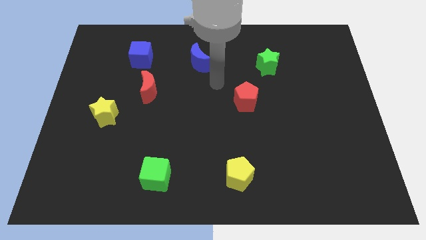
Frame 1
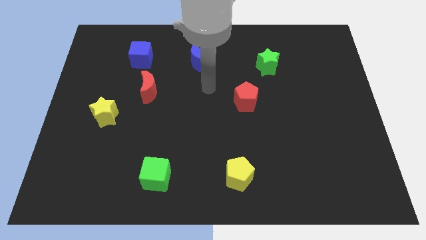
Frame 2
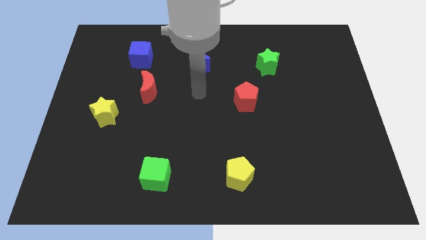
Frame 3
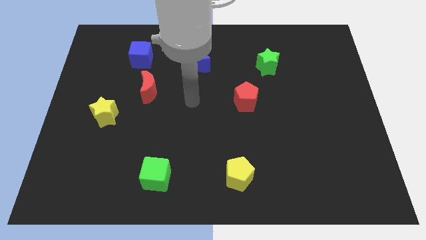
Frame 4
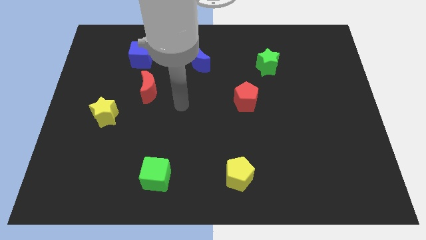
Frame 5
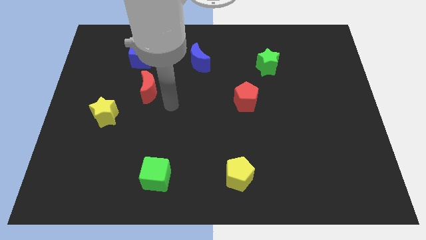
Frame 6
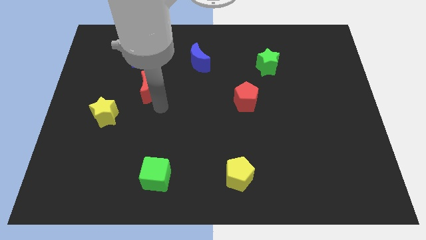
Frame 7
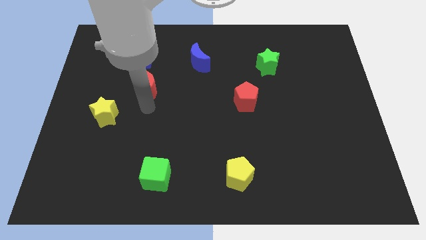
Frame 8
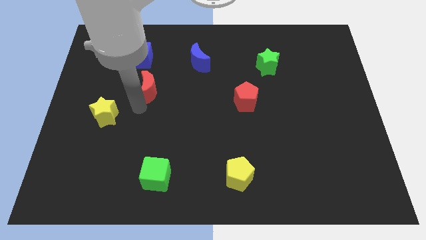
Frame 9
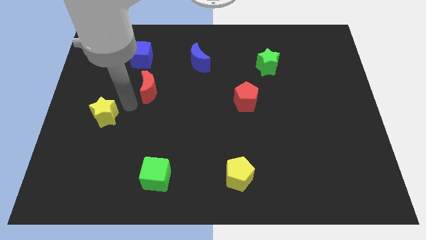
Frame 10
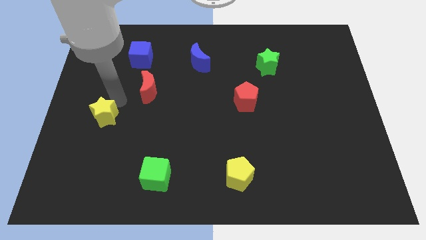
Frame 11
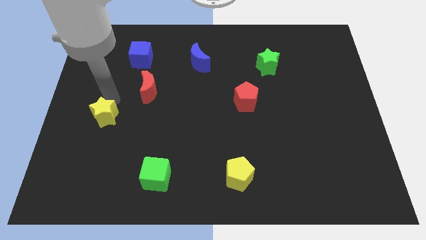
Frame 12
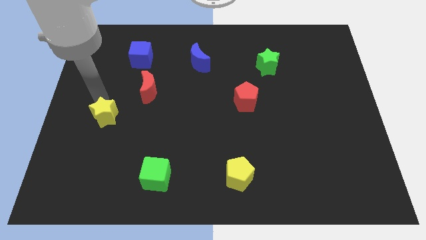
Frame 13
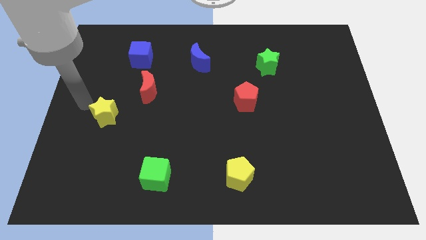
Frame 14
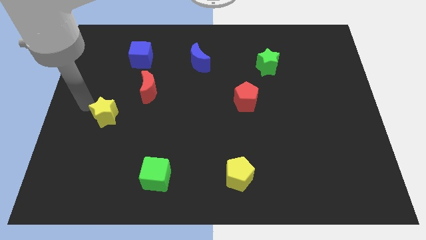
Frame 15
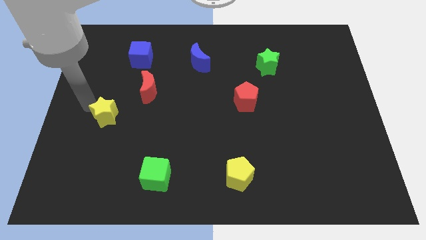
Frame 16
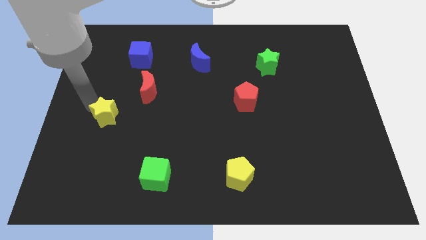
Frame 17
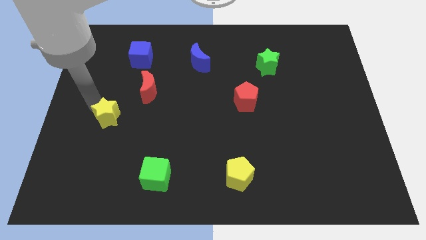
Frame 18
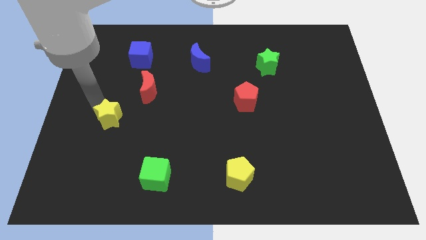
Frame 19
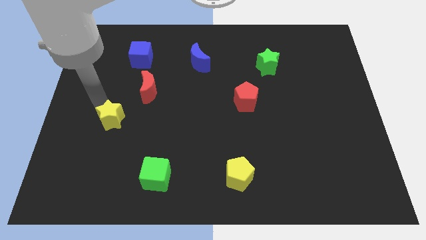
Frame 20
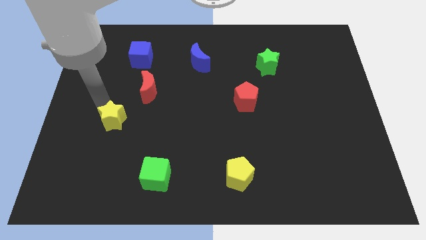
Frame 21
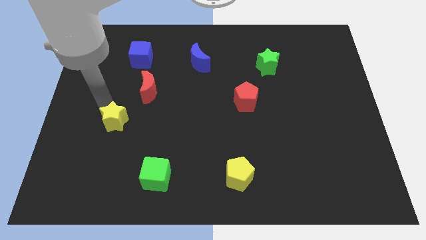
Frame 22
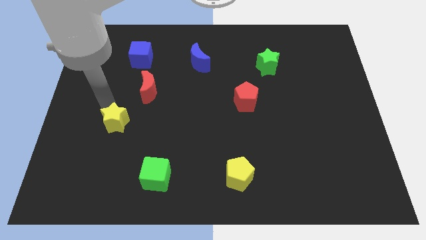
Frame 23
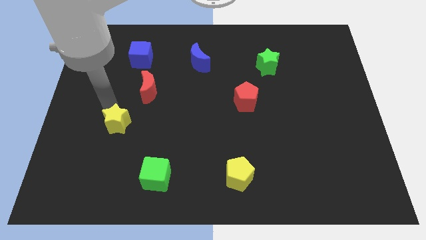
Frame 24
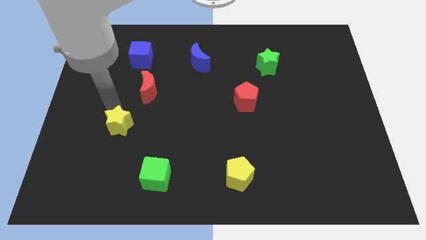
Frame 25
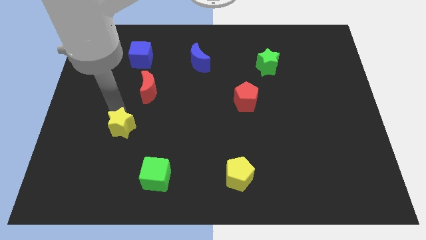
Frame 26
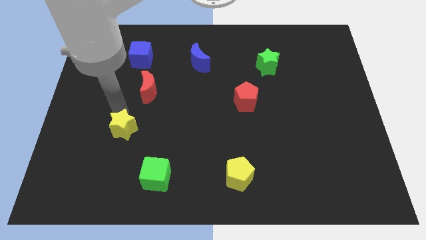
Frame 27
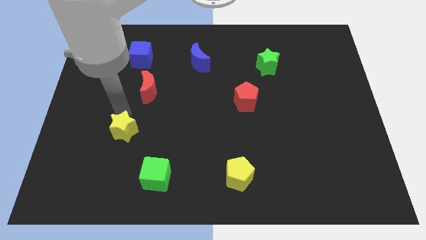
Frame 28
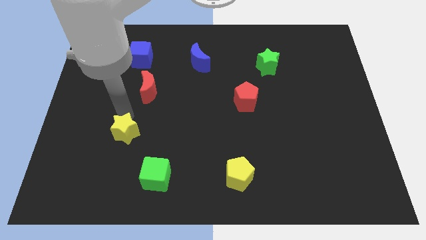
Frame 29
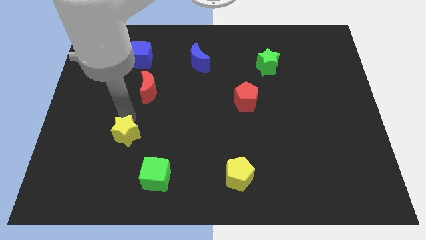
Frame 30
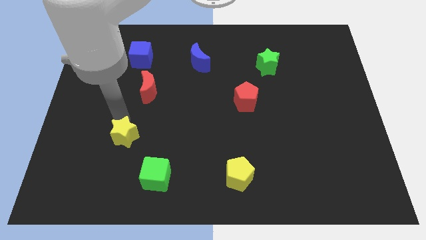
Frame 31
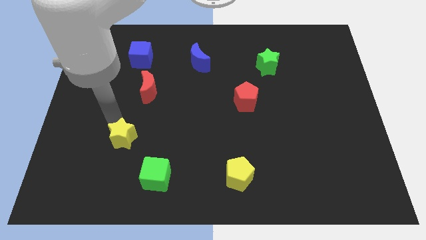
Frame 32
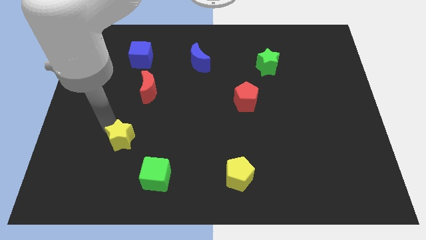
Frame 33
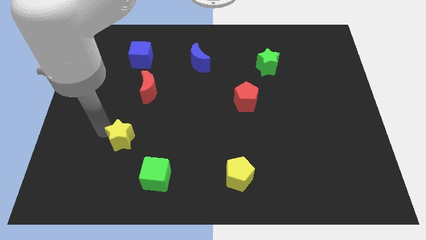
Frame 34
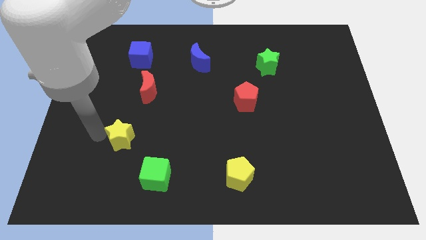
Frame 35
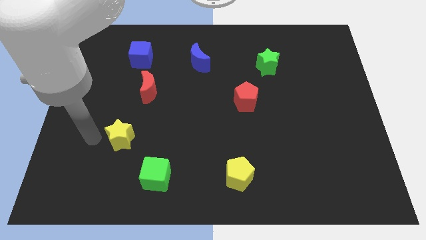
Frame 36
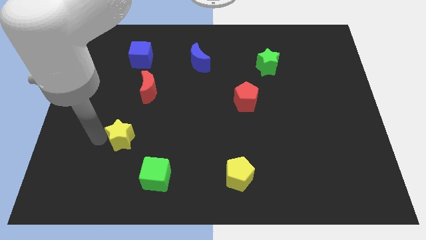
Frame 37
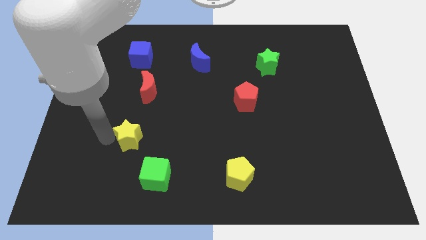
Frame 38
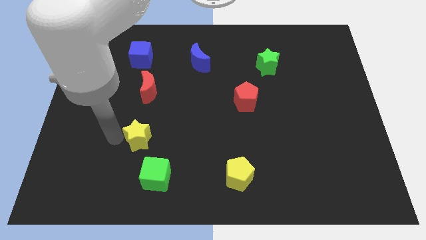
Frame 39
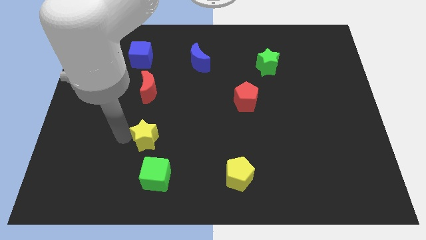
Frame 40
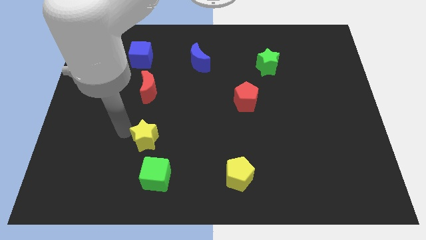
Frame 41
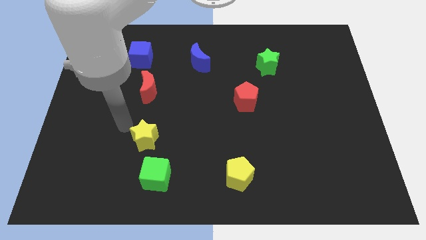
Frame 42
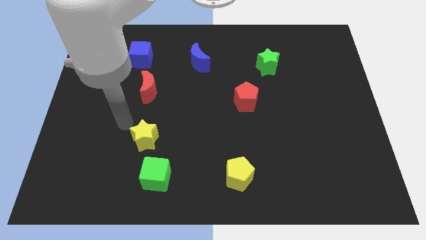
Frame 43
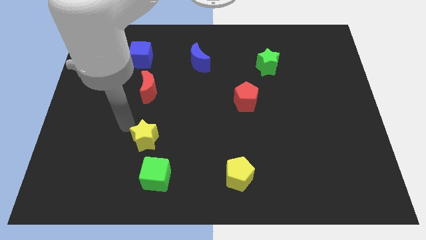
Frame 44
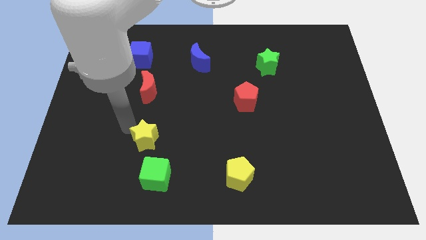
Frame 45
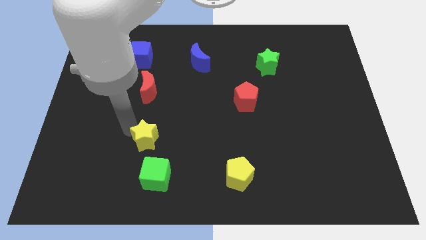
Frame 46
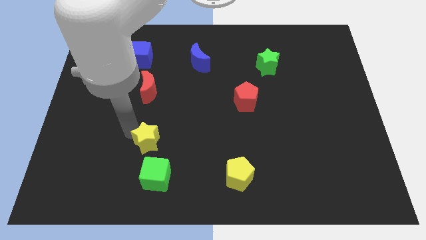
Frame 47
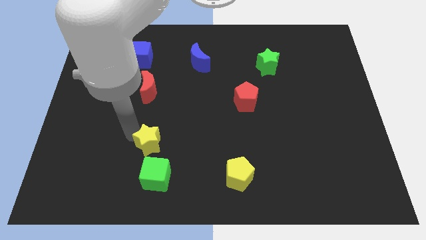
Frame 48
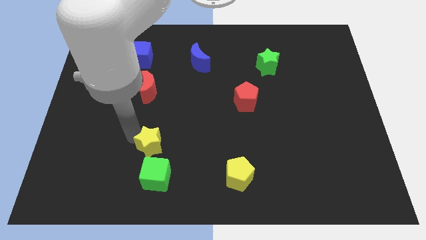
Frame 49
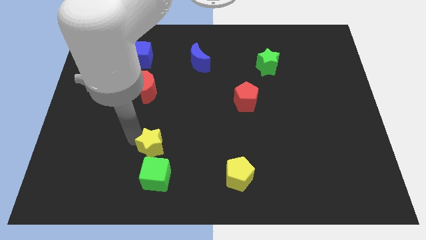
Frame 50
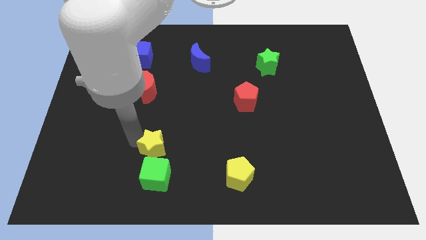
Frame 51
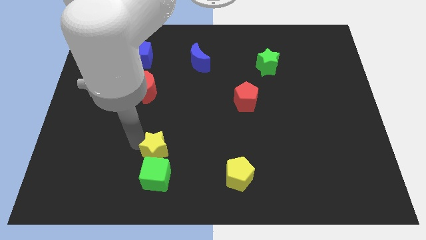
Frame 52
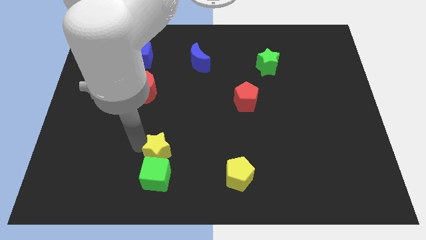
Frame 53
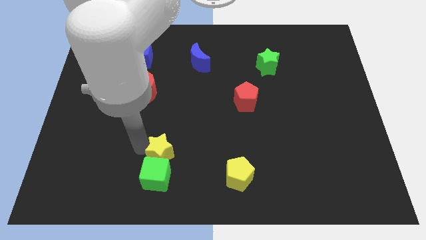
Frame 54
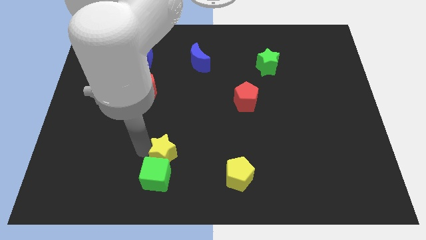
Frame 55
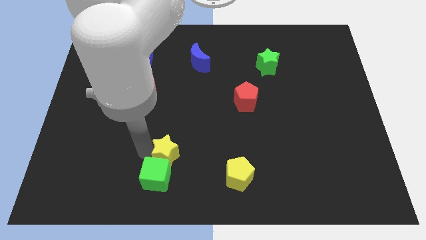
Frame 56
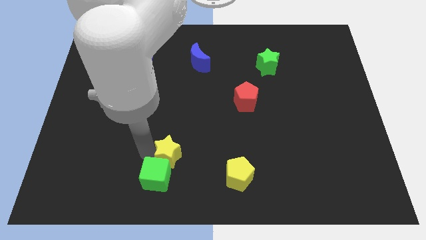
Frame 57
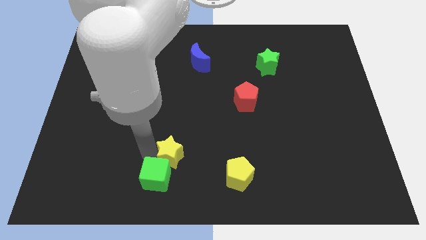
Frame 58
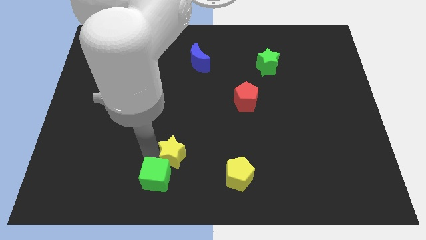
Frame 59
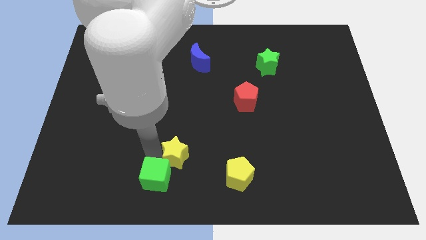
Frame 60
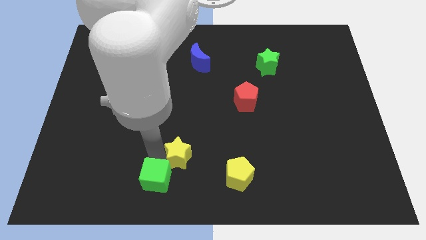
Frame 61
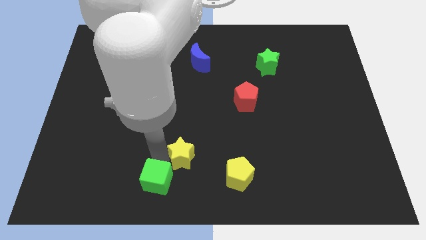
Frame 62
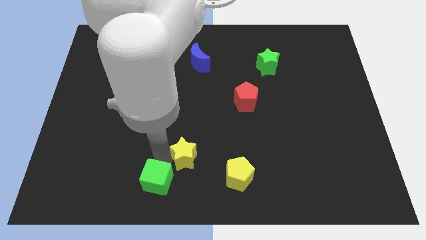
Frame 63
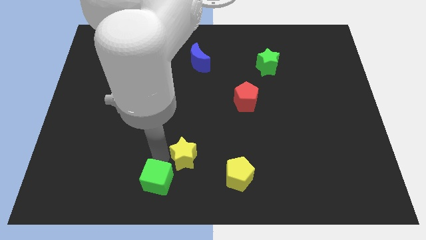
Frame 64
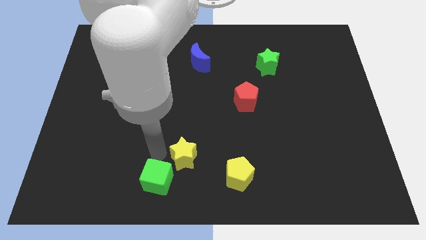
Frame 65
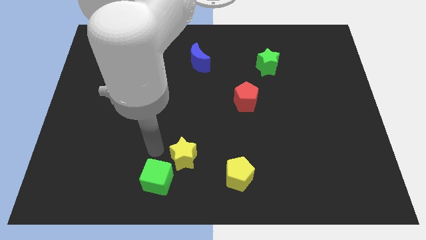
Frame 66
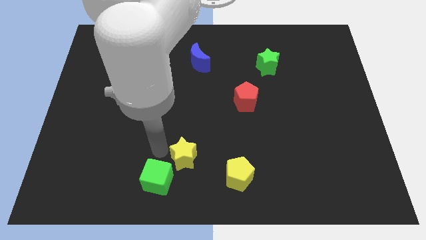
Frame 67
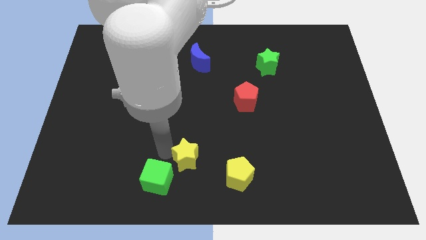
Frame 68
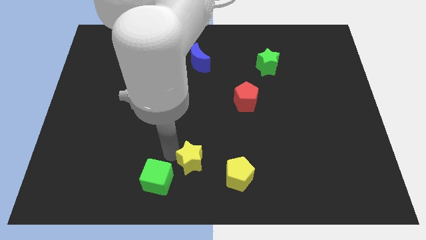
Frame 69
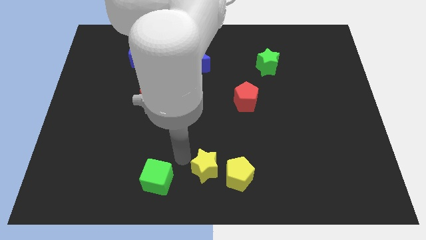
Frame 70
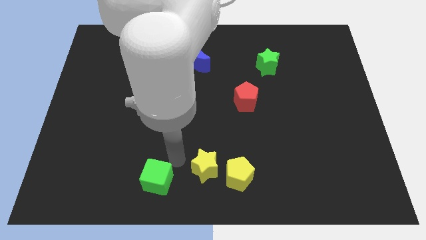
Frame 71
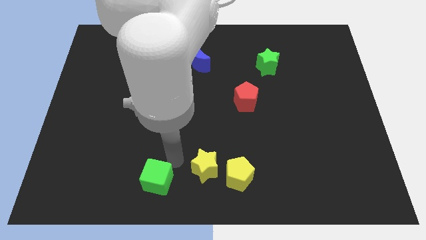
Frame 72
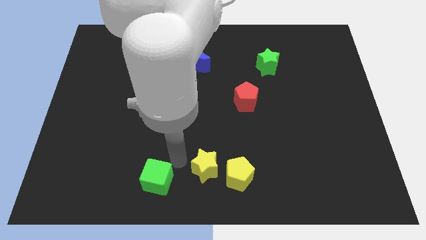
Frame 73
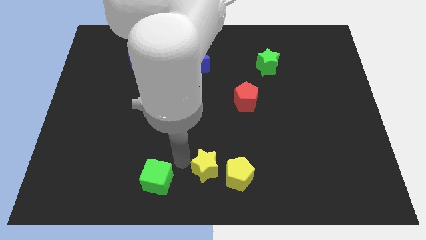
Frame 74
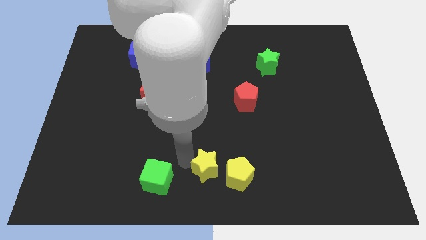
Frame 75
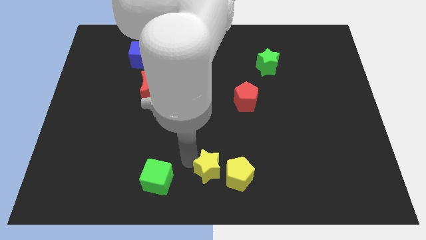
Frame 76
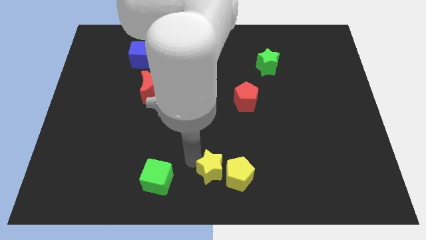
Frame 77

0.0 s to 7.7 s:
move the yellow star next to the yellow pentagon
